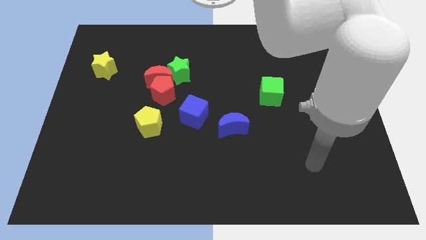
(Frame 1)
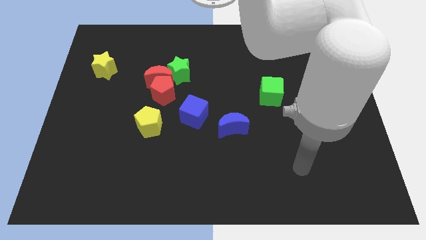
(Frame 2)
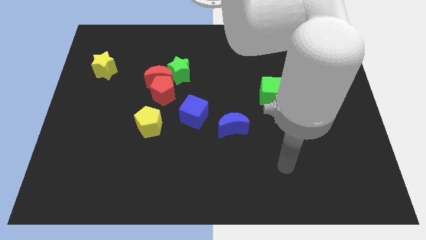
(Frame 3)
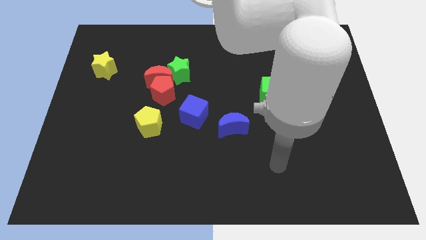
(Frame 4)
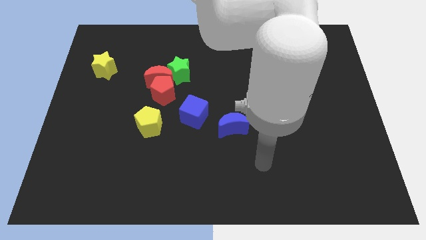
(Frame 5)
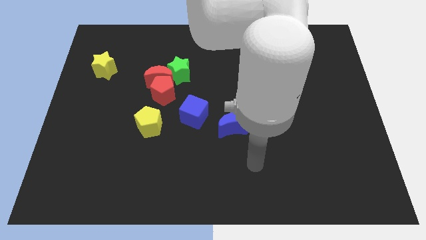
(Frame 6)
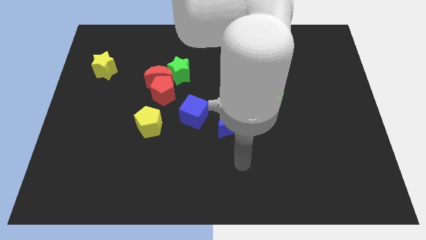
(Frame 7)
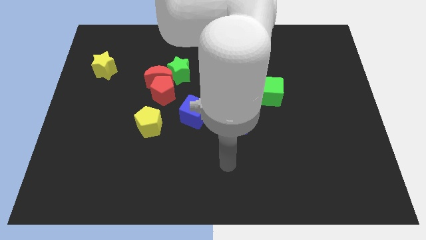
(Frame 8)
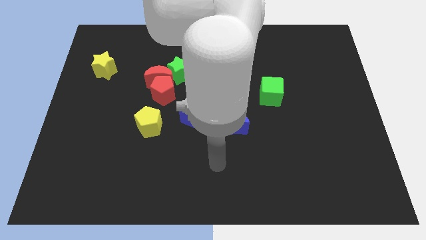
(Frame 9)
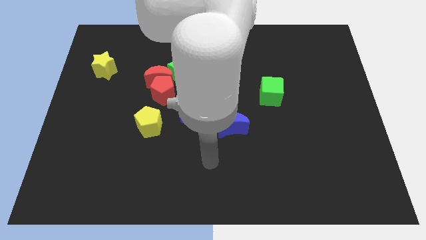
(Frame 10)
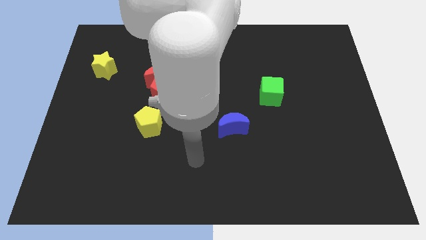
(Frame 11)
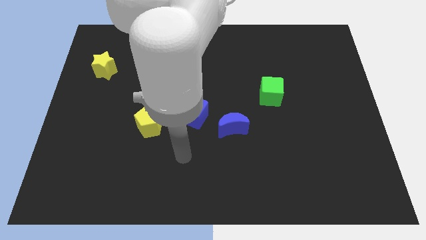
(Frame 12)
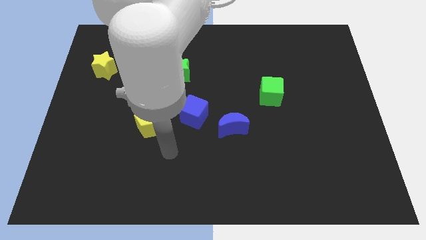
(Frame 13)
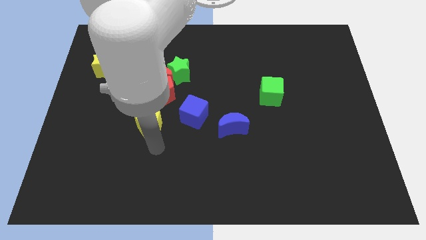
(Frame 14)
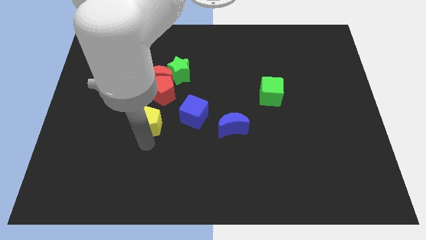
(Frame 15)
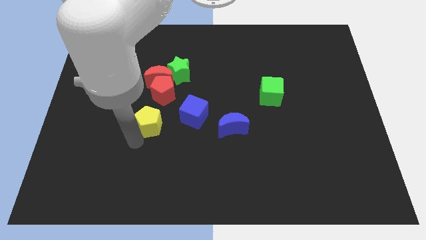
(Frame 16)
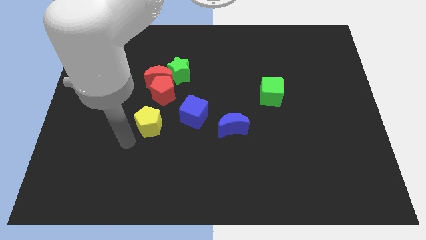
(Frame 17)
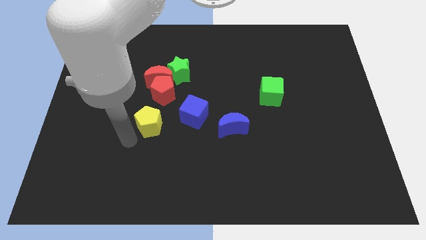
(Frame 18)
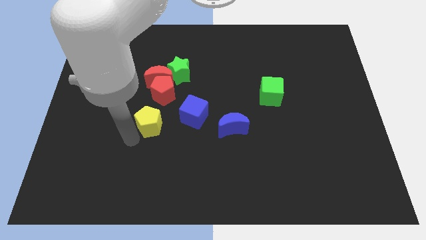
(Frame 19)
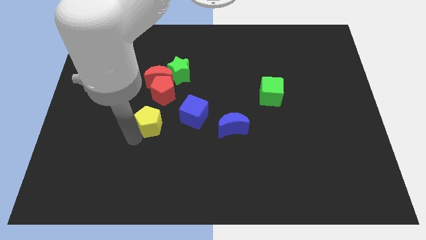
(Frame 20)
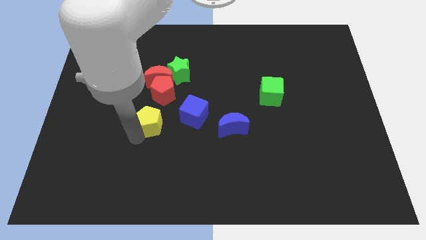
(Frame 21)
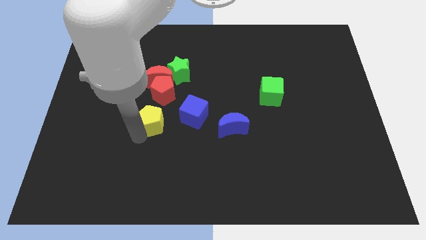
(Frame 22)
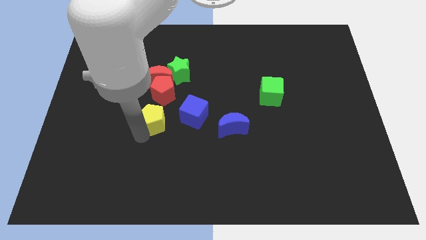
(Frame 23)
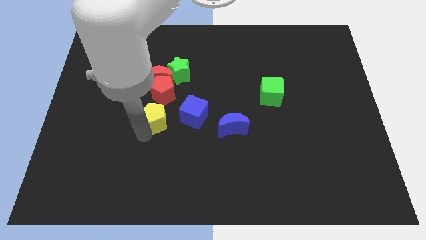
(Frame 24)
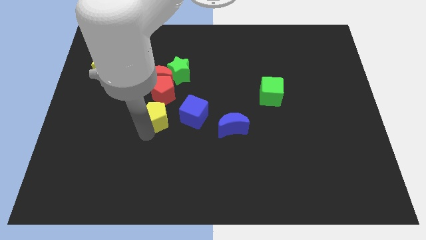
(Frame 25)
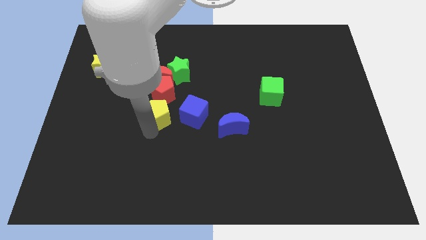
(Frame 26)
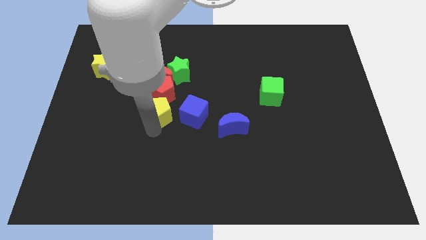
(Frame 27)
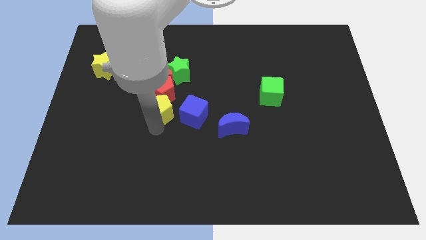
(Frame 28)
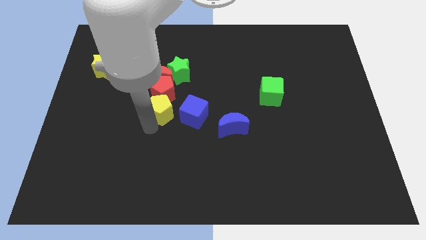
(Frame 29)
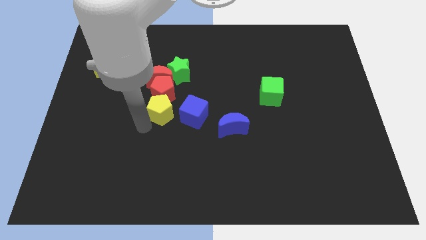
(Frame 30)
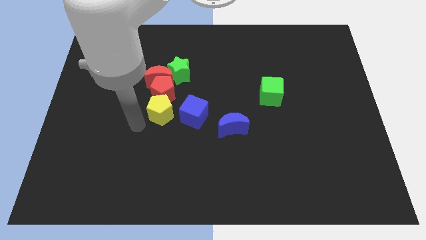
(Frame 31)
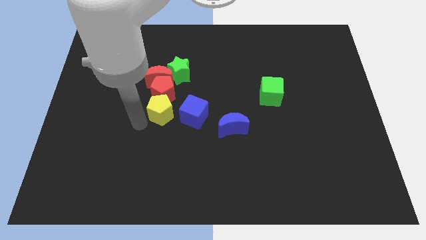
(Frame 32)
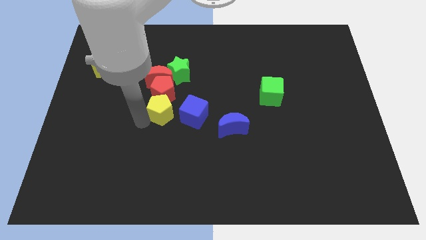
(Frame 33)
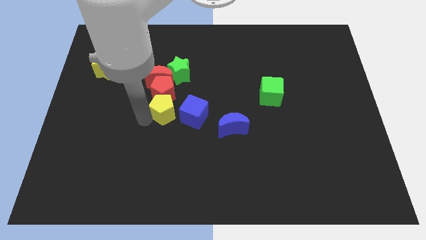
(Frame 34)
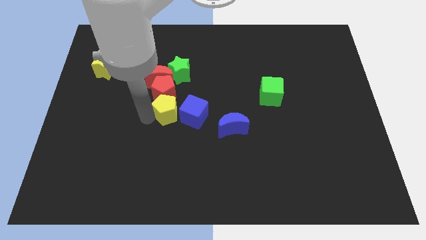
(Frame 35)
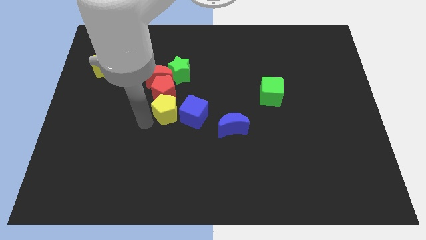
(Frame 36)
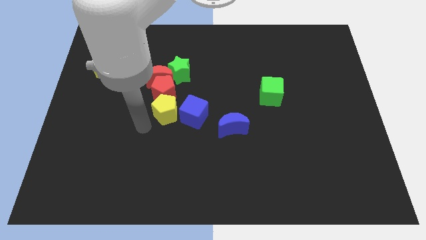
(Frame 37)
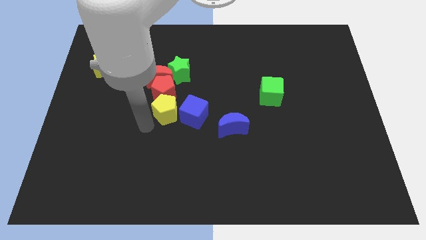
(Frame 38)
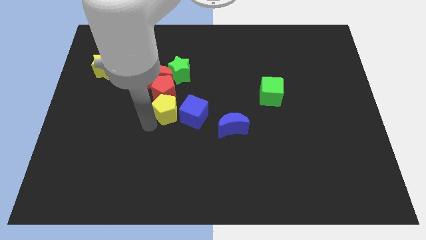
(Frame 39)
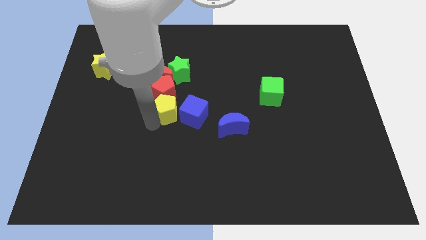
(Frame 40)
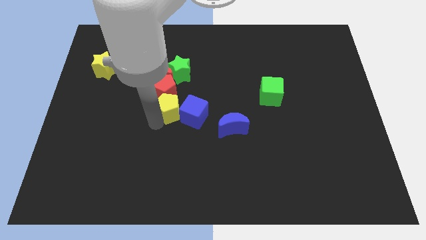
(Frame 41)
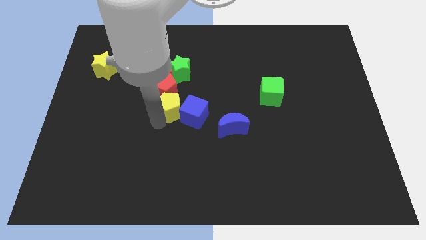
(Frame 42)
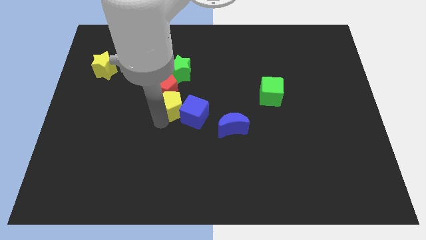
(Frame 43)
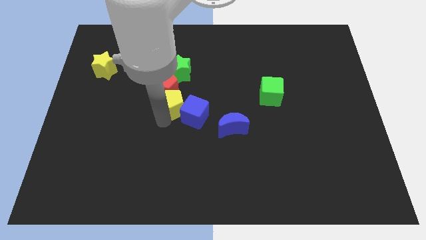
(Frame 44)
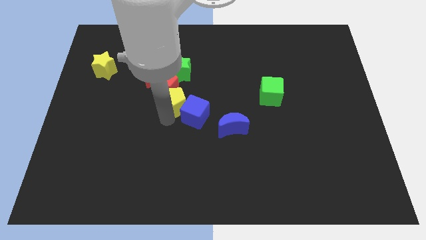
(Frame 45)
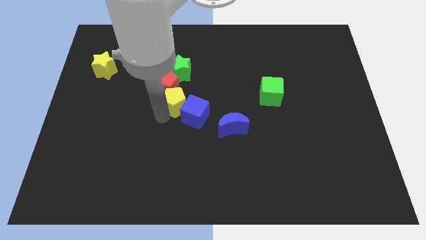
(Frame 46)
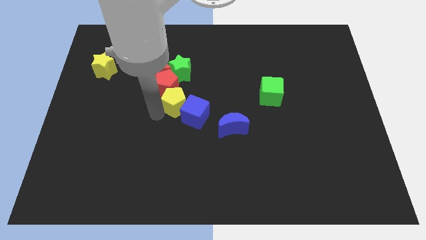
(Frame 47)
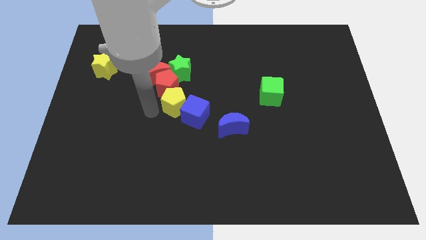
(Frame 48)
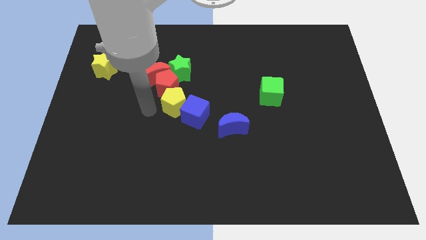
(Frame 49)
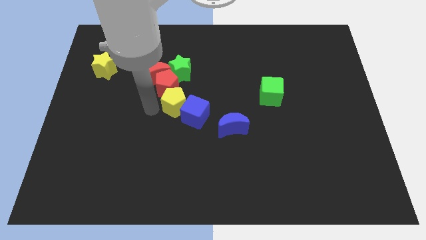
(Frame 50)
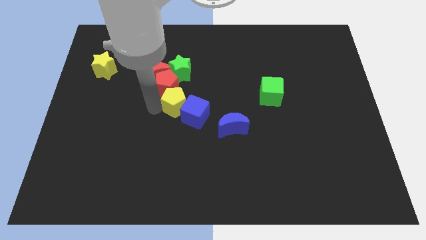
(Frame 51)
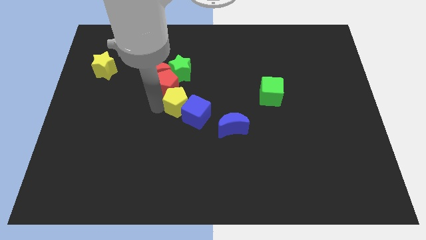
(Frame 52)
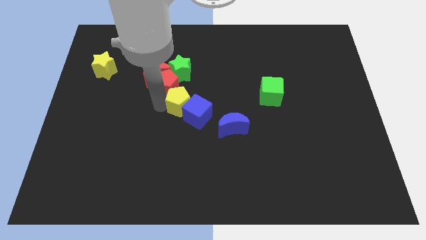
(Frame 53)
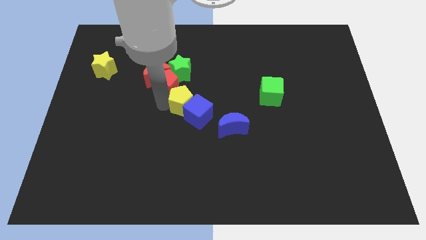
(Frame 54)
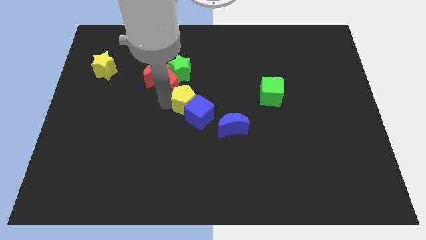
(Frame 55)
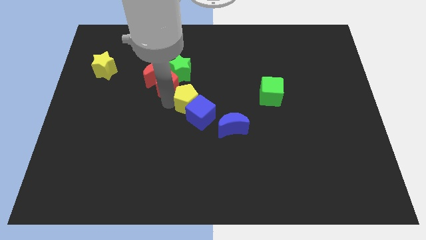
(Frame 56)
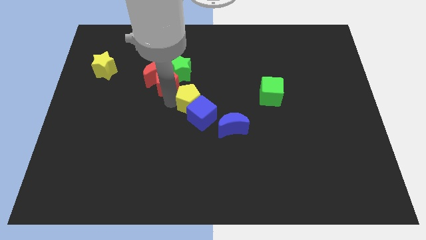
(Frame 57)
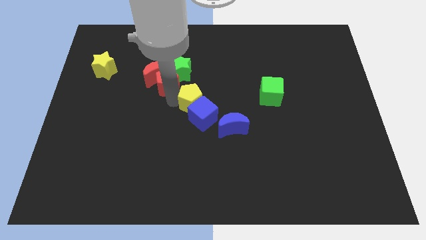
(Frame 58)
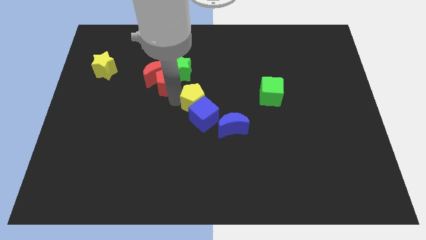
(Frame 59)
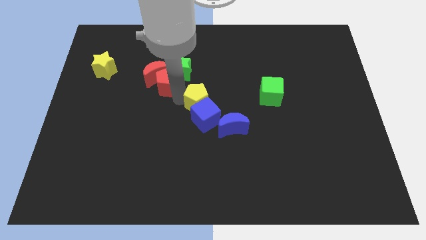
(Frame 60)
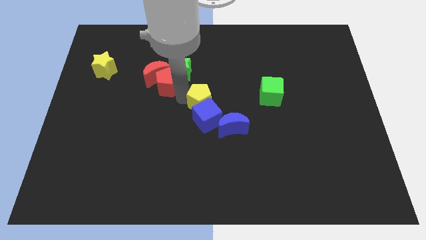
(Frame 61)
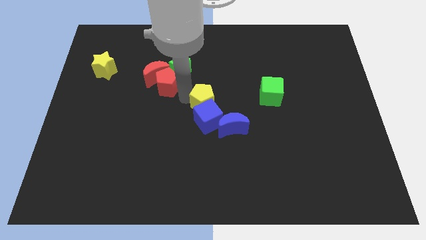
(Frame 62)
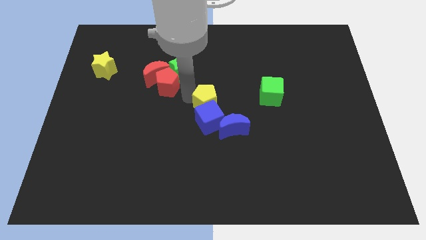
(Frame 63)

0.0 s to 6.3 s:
slide the yellow pentagon left of the green cube

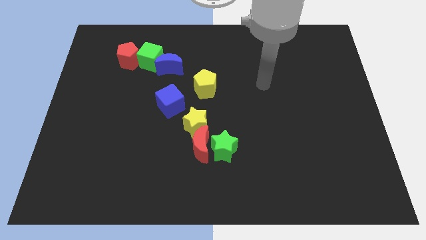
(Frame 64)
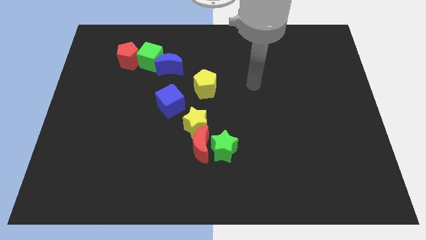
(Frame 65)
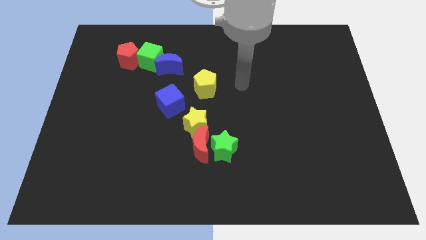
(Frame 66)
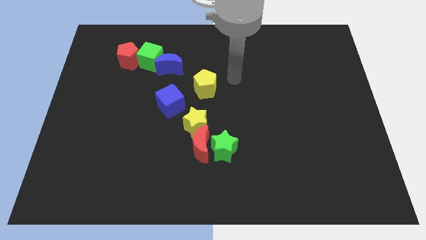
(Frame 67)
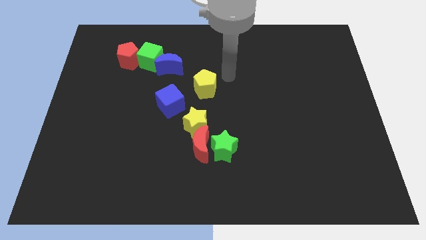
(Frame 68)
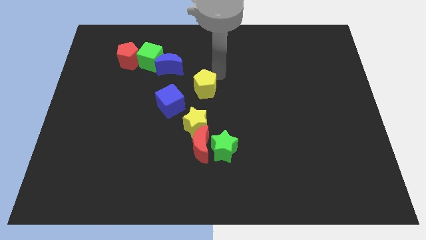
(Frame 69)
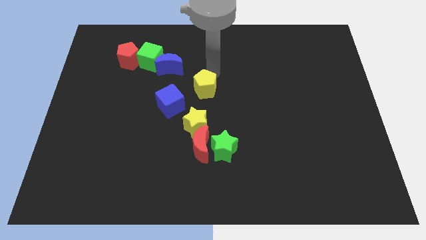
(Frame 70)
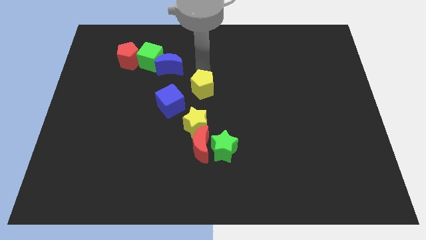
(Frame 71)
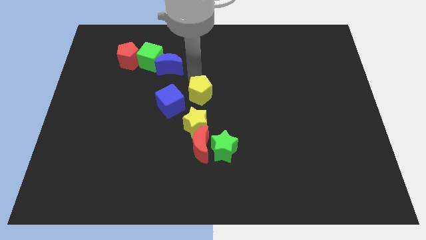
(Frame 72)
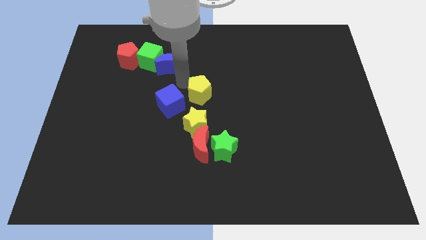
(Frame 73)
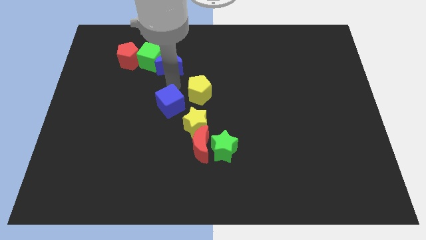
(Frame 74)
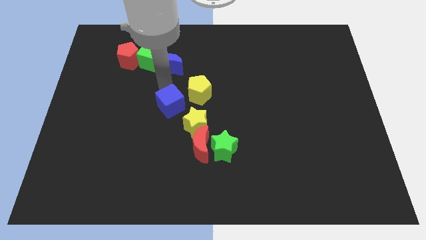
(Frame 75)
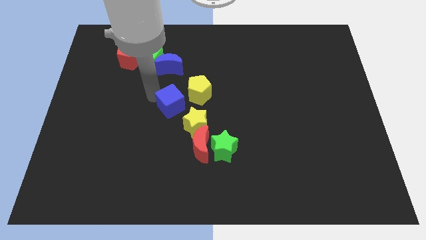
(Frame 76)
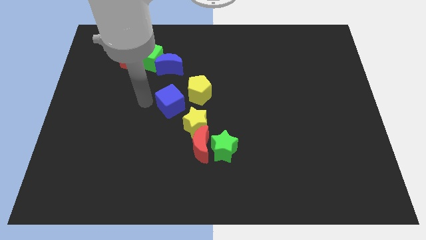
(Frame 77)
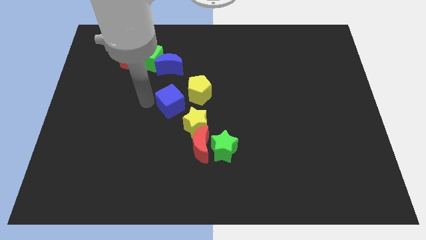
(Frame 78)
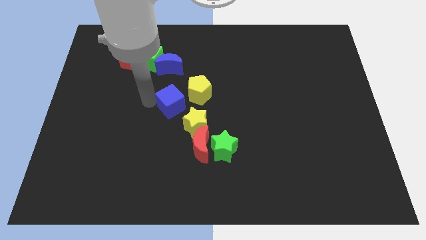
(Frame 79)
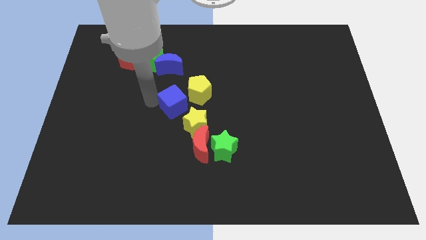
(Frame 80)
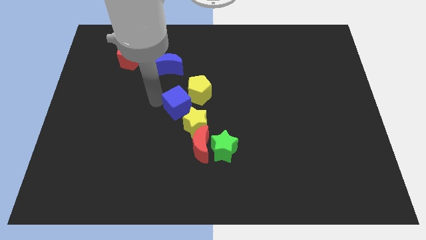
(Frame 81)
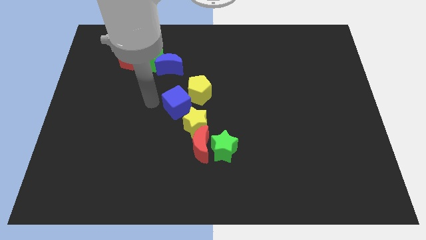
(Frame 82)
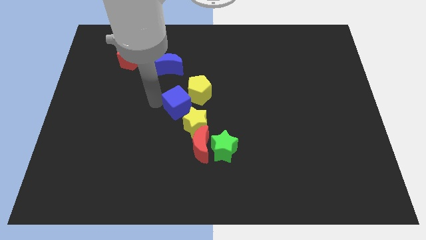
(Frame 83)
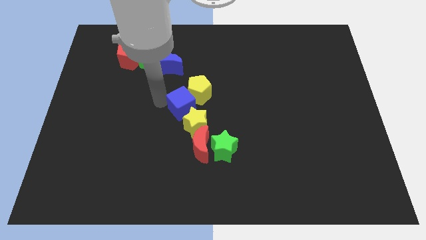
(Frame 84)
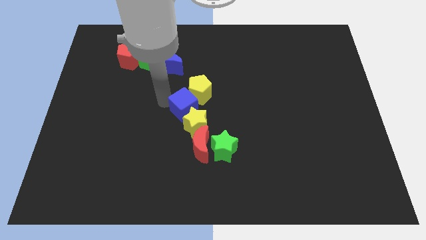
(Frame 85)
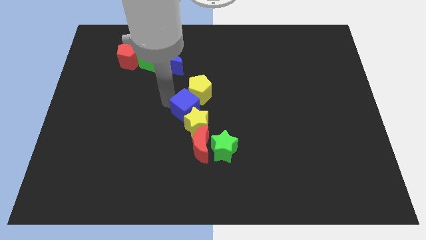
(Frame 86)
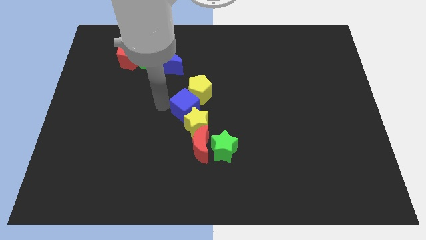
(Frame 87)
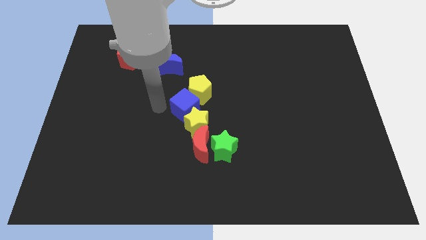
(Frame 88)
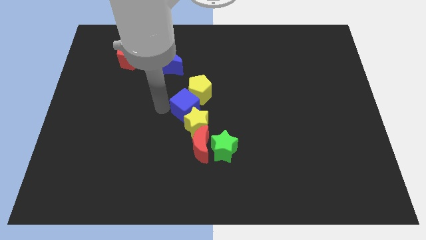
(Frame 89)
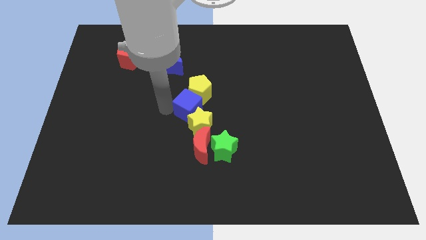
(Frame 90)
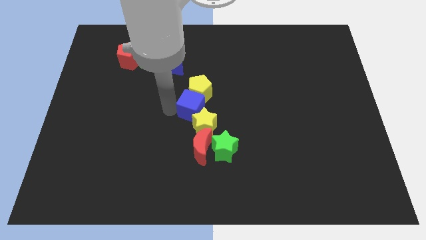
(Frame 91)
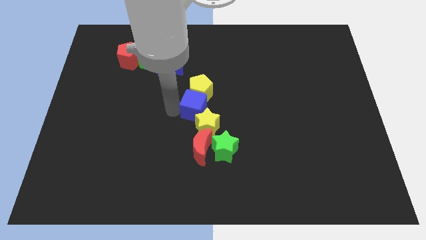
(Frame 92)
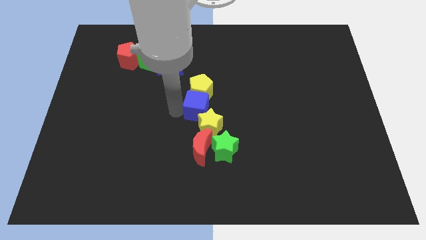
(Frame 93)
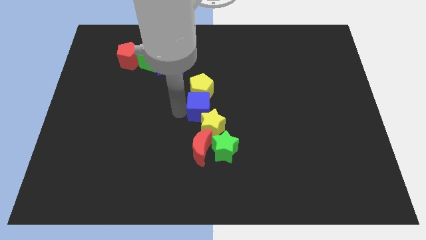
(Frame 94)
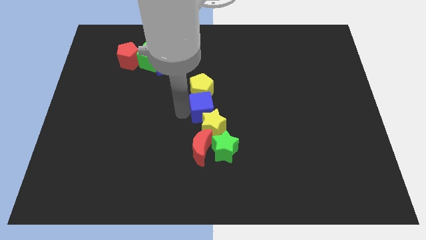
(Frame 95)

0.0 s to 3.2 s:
push the blue cube to the top side of the green star
